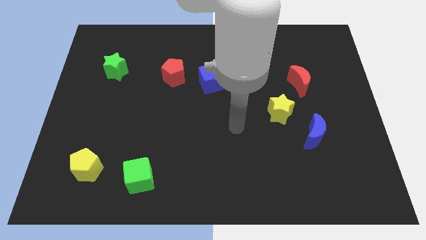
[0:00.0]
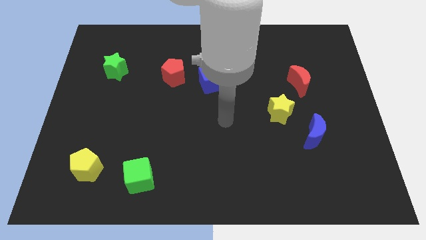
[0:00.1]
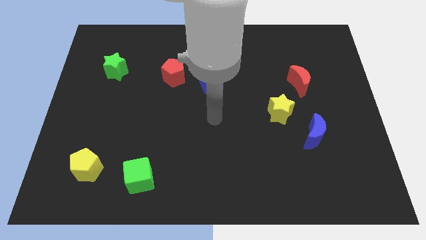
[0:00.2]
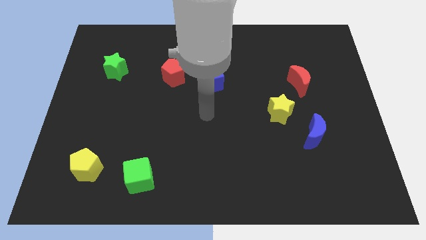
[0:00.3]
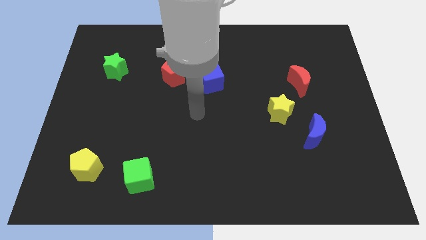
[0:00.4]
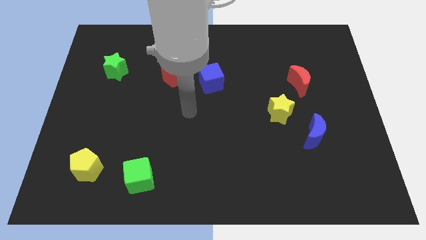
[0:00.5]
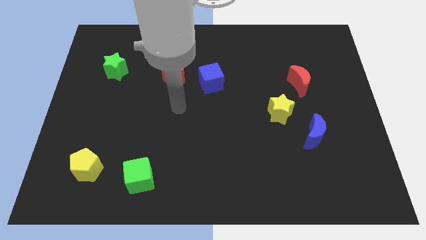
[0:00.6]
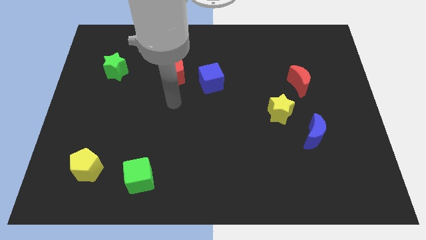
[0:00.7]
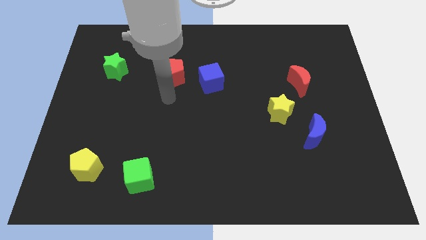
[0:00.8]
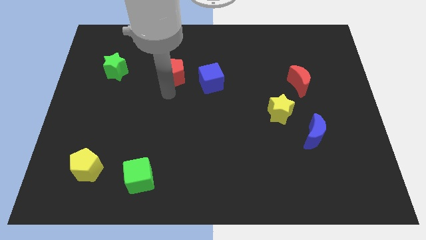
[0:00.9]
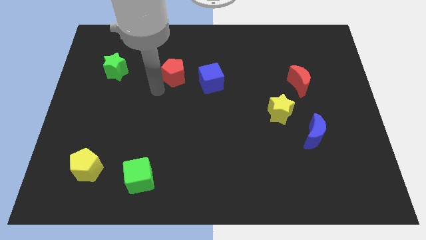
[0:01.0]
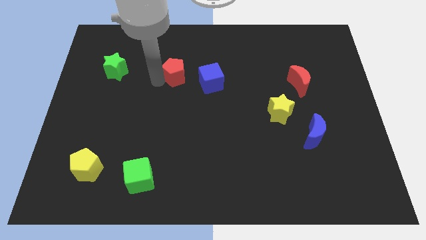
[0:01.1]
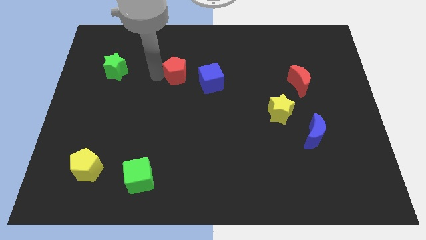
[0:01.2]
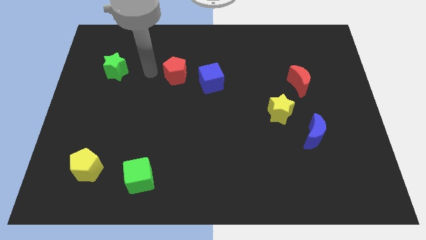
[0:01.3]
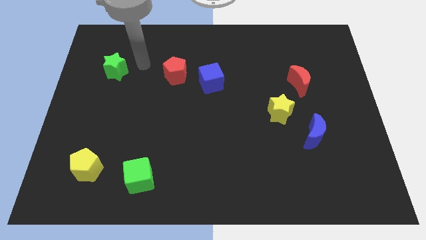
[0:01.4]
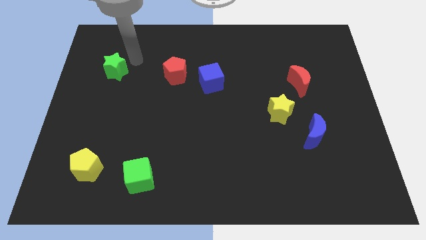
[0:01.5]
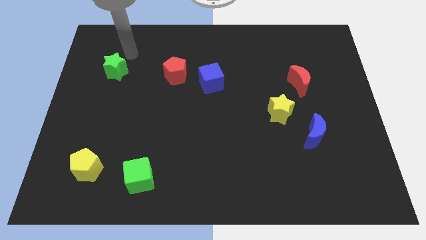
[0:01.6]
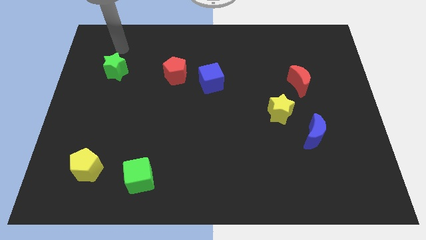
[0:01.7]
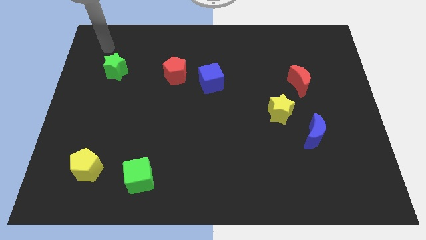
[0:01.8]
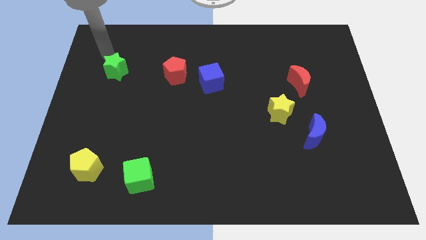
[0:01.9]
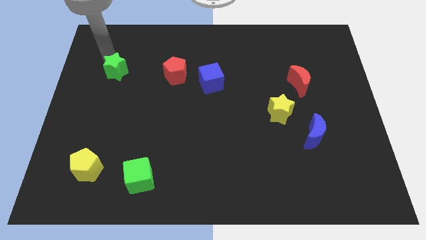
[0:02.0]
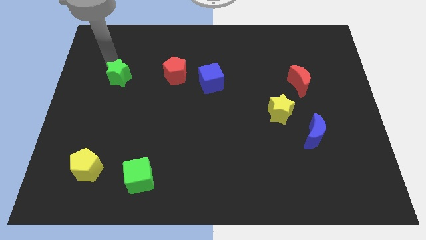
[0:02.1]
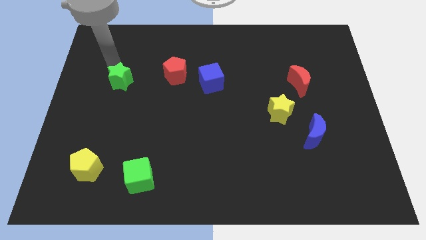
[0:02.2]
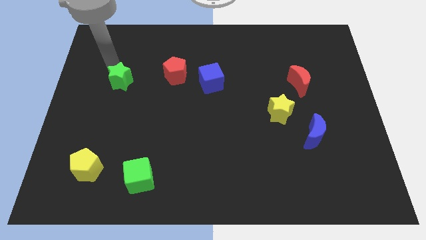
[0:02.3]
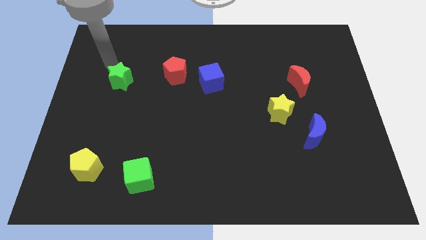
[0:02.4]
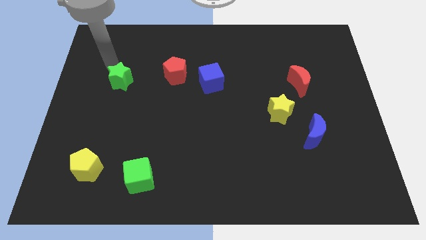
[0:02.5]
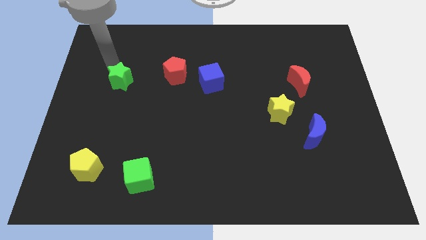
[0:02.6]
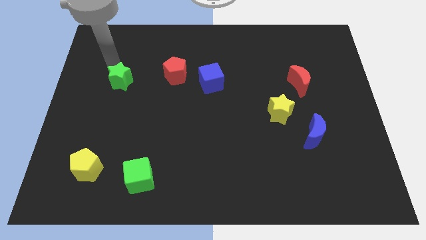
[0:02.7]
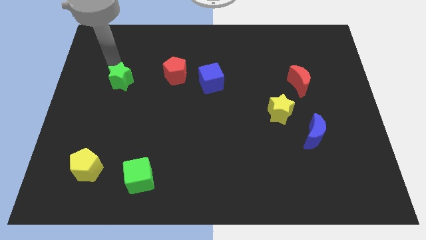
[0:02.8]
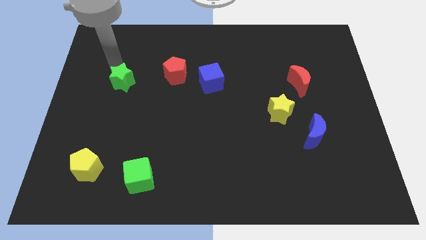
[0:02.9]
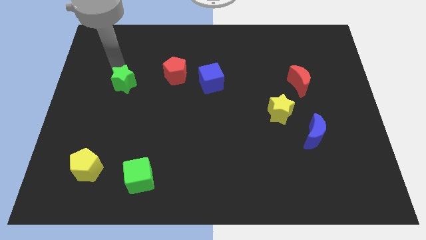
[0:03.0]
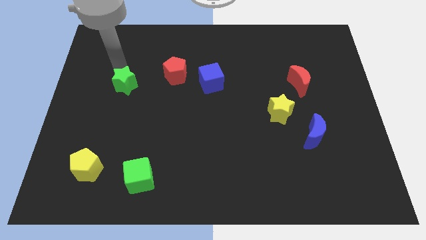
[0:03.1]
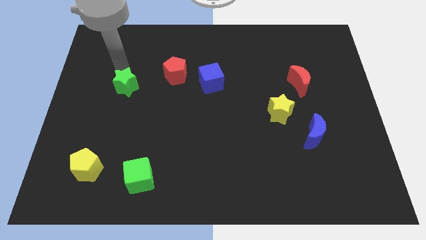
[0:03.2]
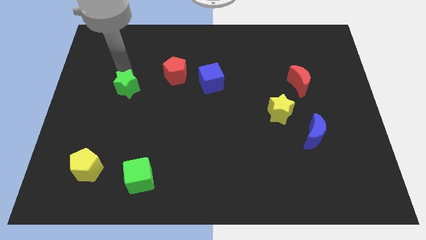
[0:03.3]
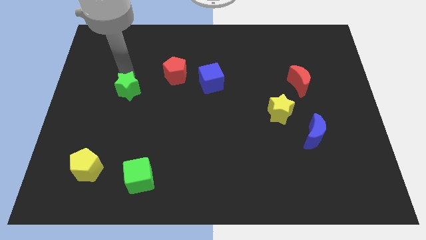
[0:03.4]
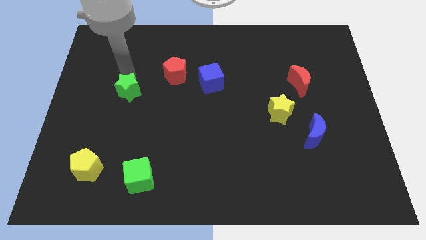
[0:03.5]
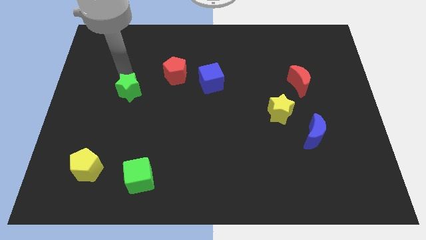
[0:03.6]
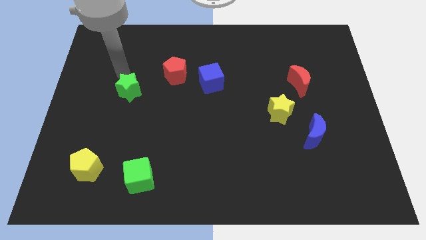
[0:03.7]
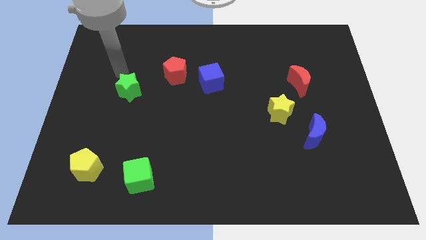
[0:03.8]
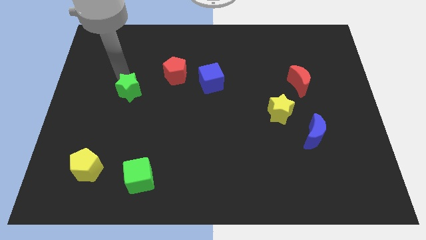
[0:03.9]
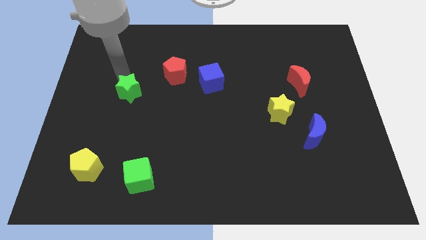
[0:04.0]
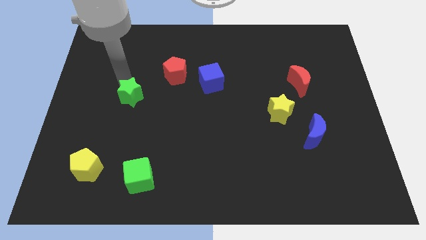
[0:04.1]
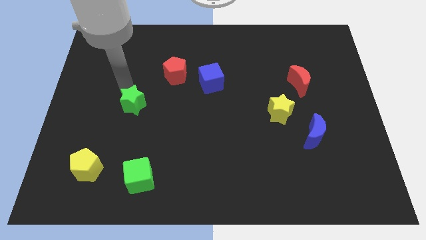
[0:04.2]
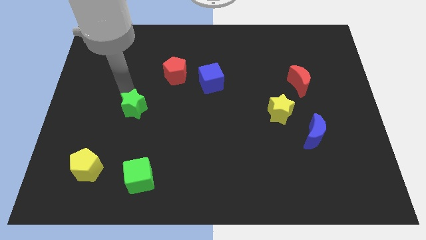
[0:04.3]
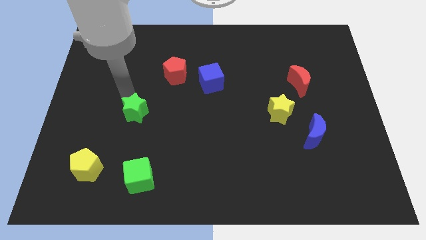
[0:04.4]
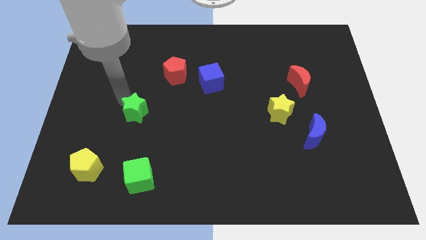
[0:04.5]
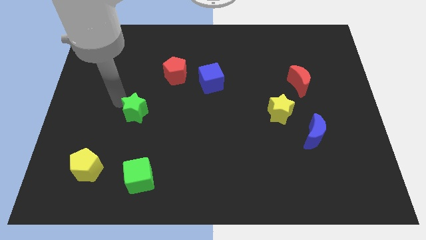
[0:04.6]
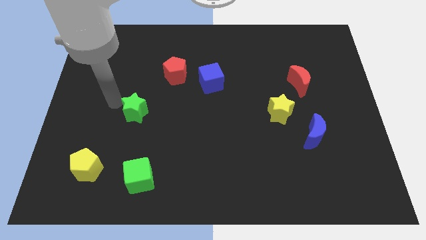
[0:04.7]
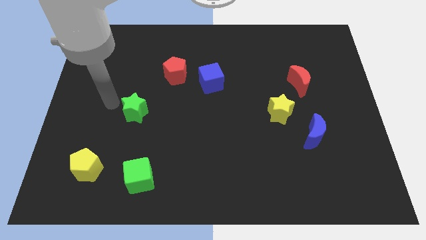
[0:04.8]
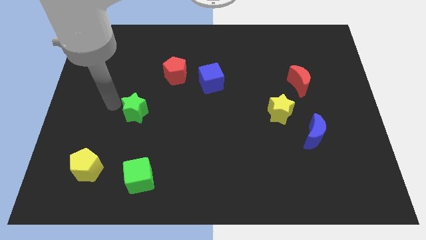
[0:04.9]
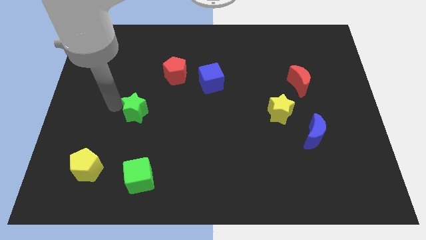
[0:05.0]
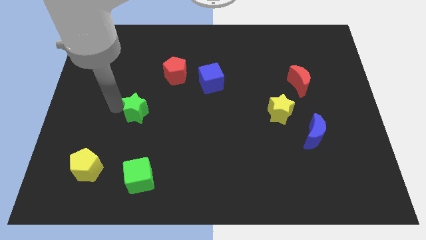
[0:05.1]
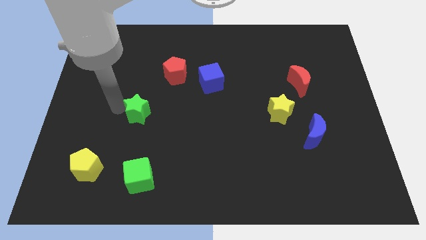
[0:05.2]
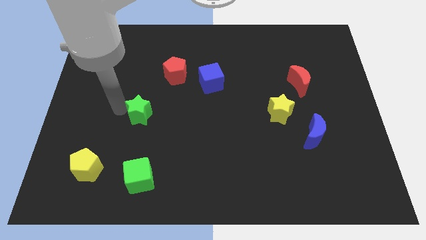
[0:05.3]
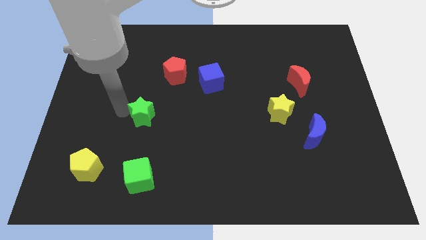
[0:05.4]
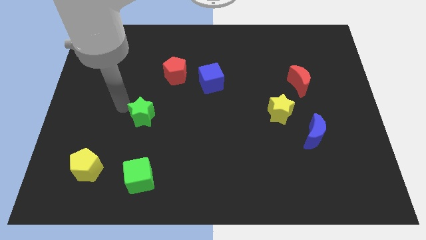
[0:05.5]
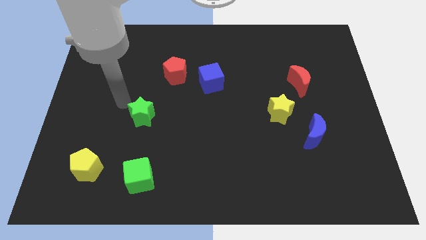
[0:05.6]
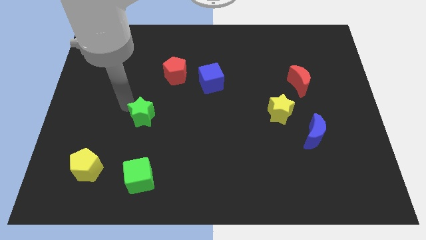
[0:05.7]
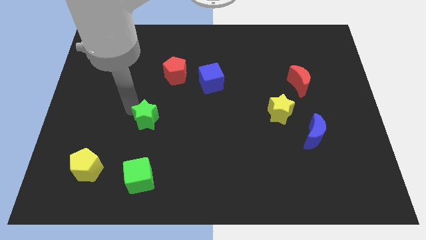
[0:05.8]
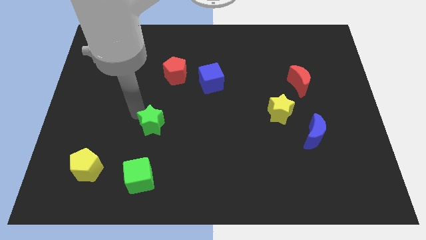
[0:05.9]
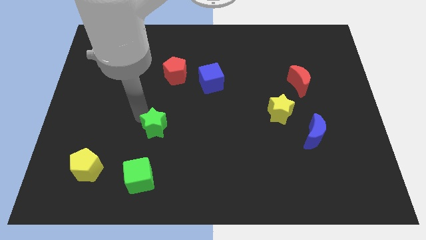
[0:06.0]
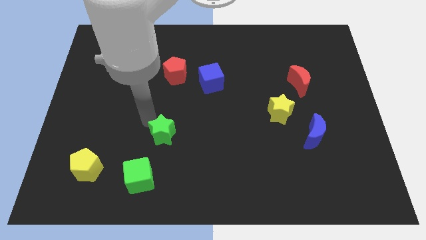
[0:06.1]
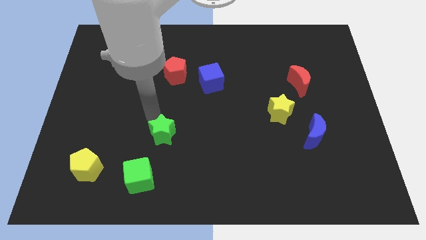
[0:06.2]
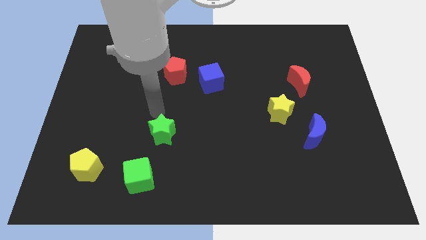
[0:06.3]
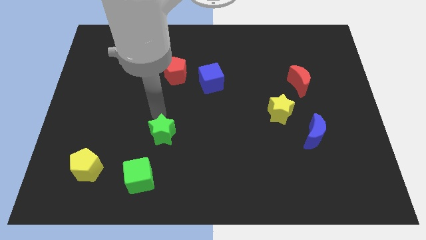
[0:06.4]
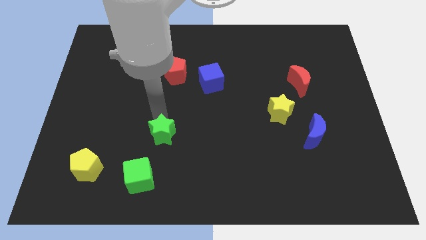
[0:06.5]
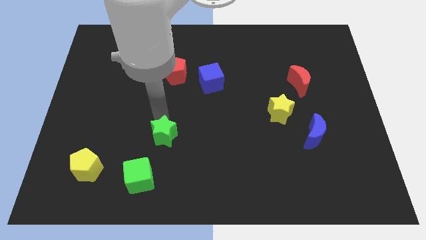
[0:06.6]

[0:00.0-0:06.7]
put the green star diagonally up and to the right of the green cube
